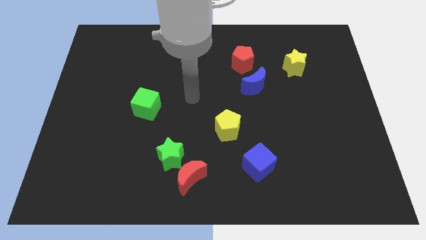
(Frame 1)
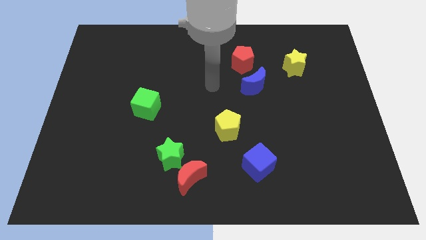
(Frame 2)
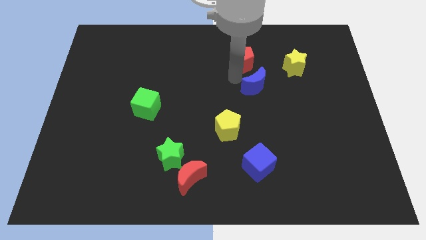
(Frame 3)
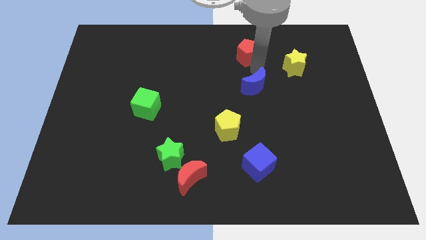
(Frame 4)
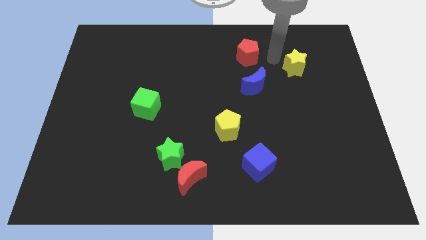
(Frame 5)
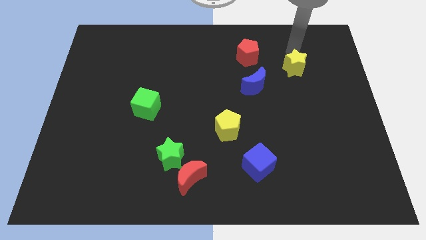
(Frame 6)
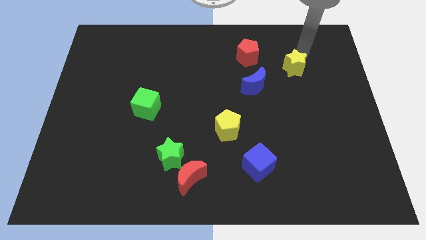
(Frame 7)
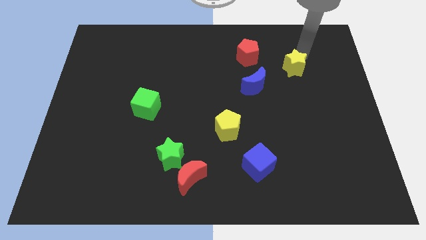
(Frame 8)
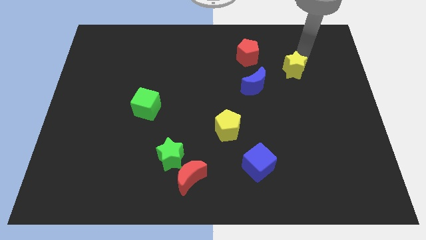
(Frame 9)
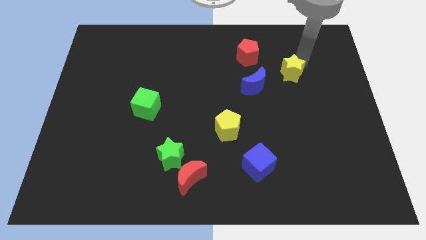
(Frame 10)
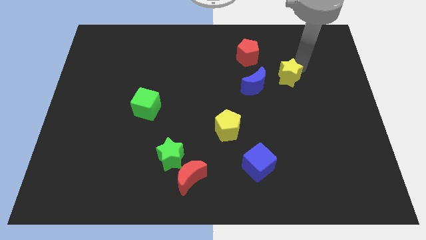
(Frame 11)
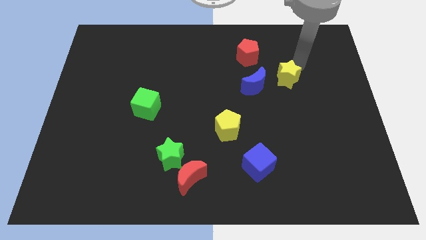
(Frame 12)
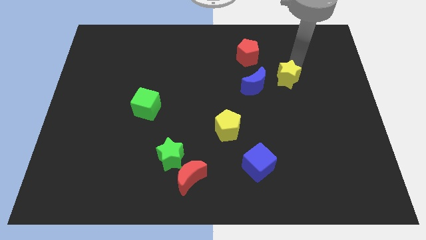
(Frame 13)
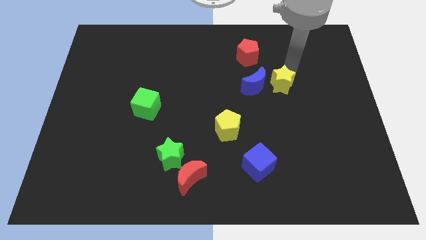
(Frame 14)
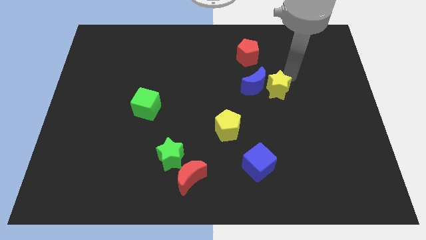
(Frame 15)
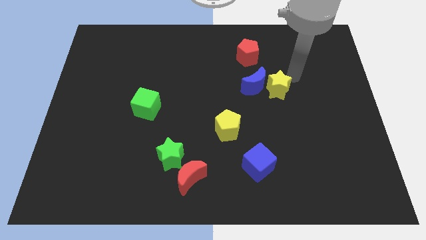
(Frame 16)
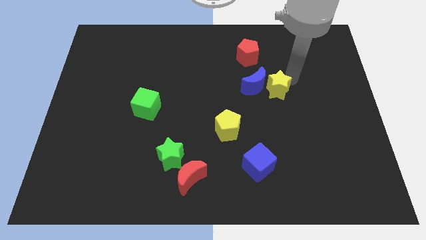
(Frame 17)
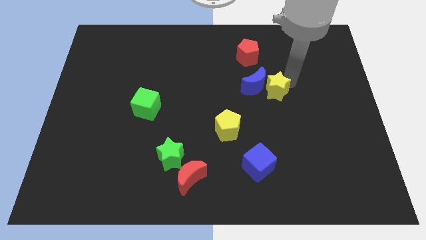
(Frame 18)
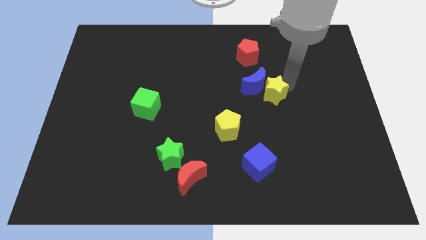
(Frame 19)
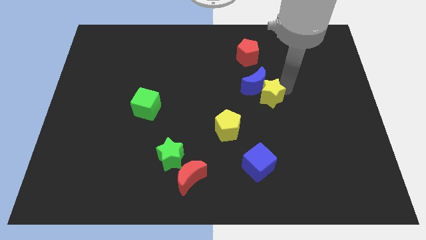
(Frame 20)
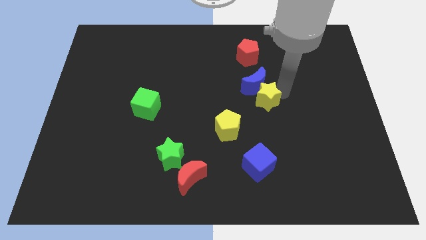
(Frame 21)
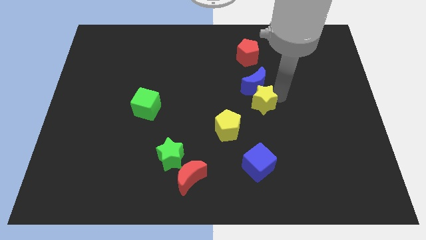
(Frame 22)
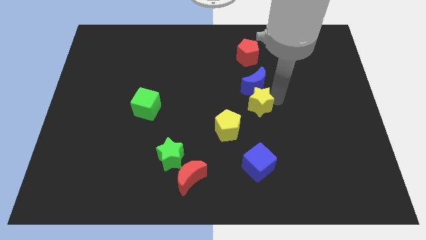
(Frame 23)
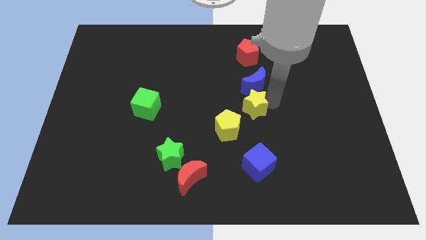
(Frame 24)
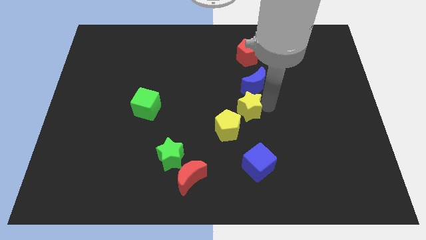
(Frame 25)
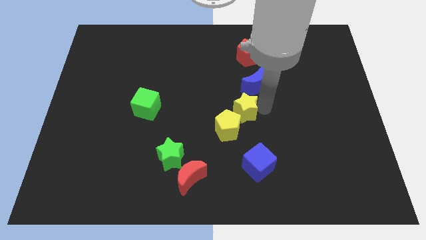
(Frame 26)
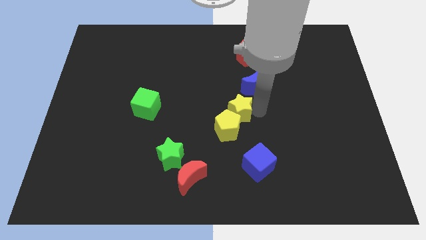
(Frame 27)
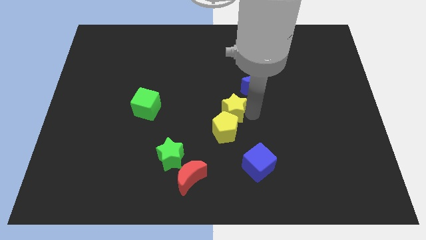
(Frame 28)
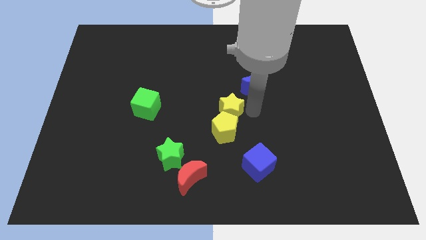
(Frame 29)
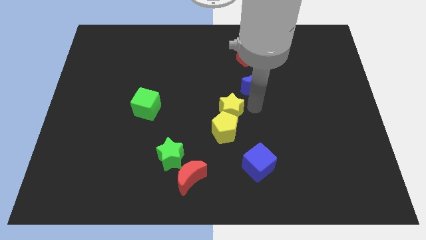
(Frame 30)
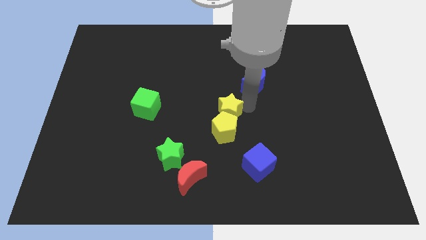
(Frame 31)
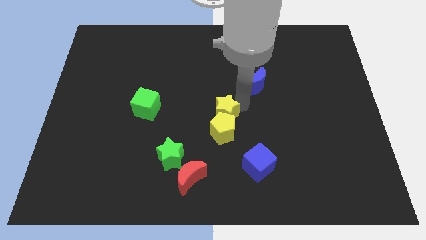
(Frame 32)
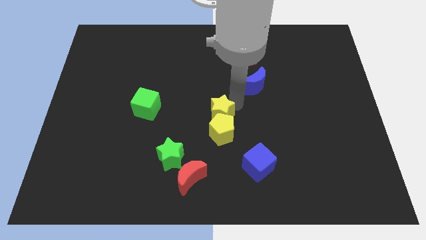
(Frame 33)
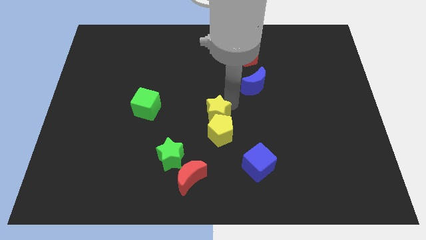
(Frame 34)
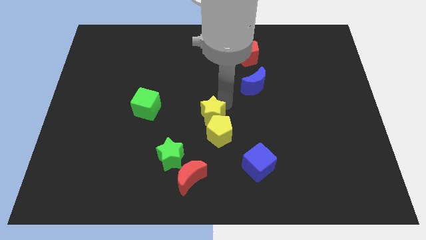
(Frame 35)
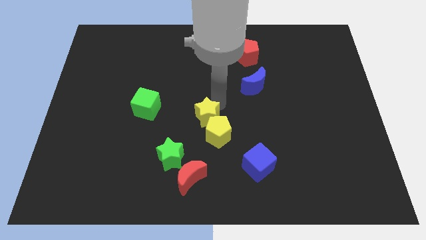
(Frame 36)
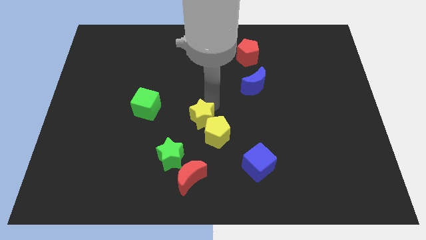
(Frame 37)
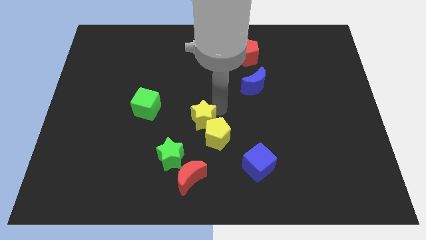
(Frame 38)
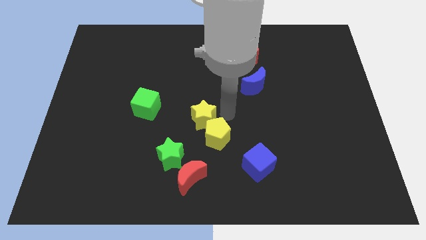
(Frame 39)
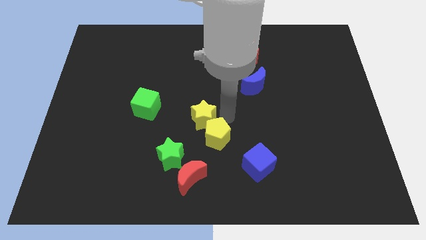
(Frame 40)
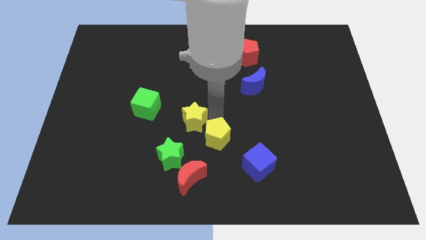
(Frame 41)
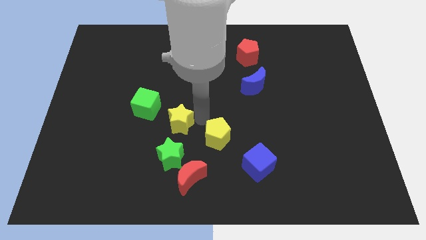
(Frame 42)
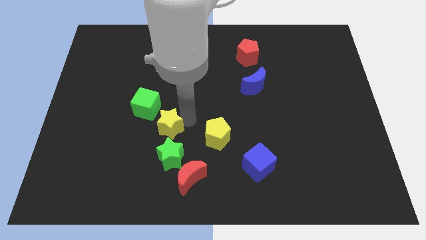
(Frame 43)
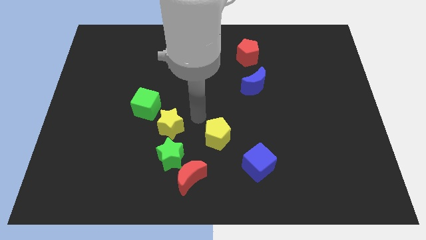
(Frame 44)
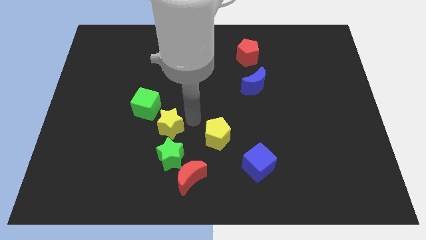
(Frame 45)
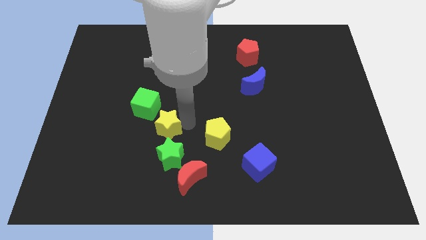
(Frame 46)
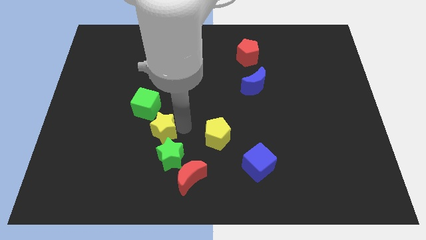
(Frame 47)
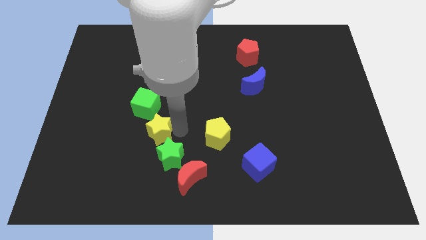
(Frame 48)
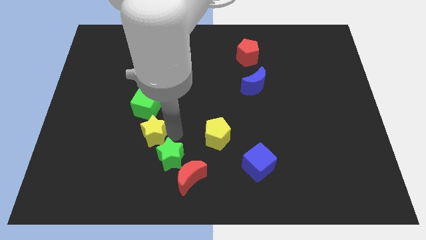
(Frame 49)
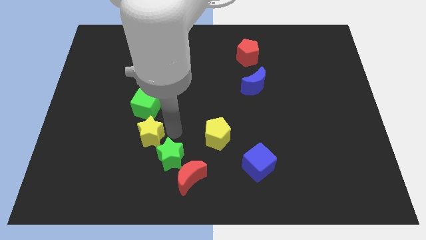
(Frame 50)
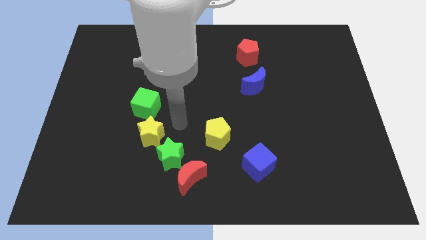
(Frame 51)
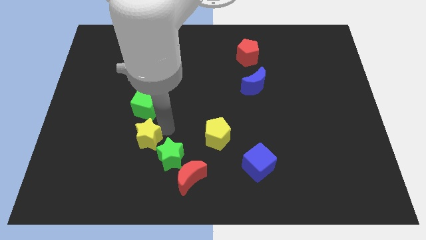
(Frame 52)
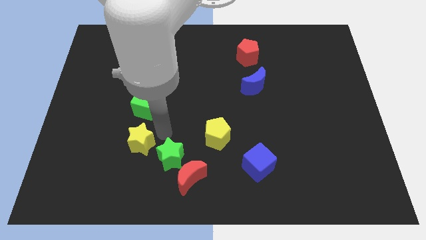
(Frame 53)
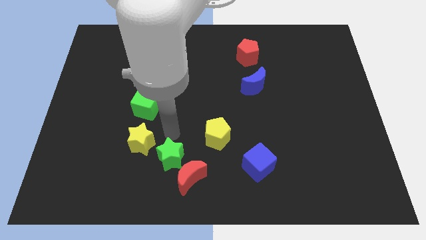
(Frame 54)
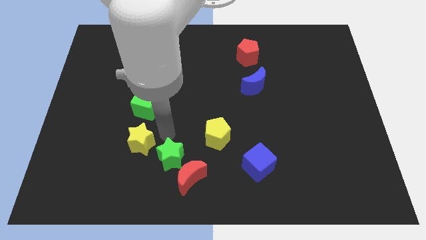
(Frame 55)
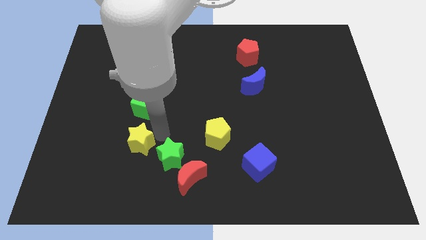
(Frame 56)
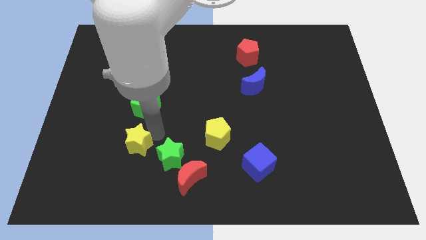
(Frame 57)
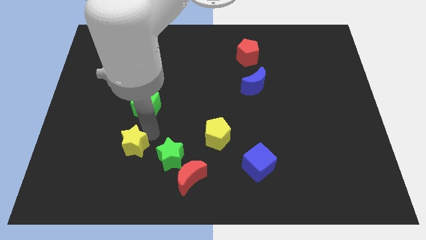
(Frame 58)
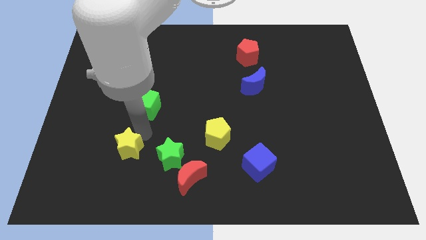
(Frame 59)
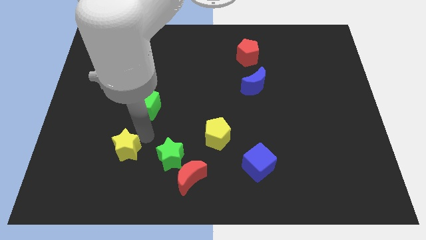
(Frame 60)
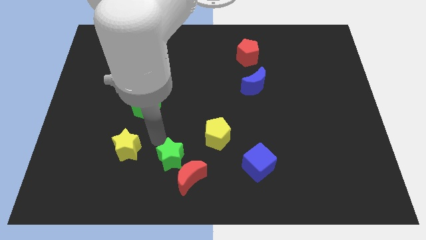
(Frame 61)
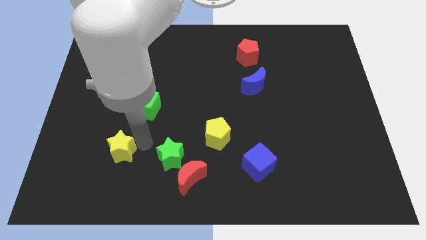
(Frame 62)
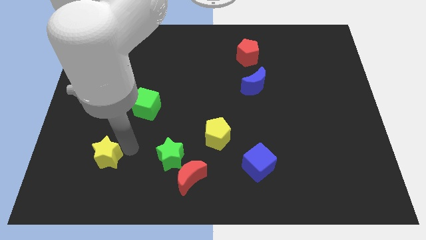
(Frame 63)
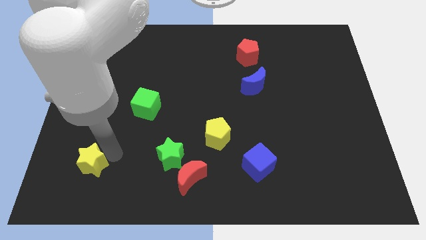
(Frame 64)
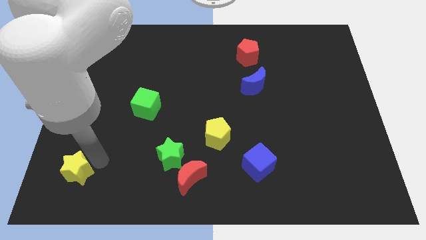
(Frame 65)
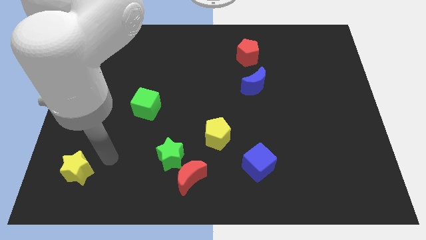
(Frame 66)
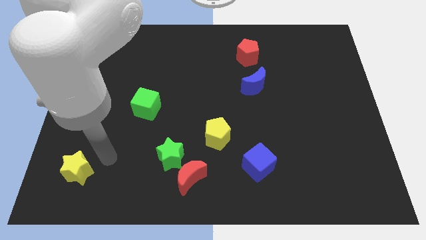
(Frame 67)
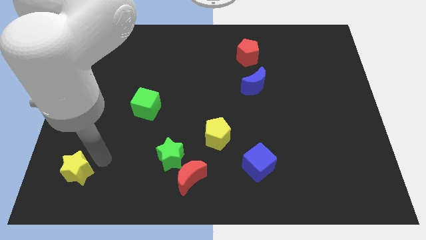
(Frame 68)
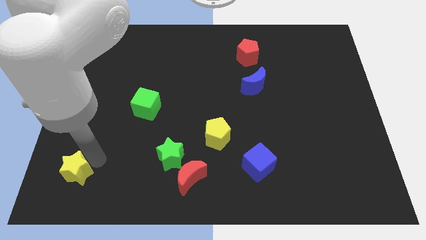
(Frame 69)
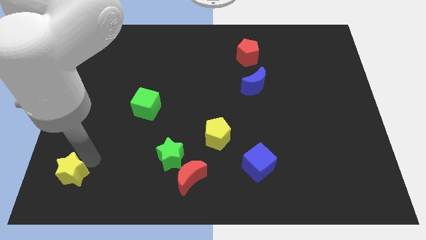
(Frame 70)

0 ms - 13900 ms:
push the yellow star to the bottom left

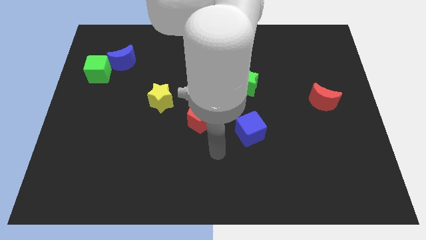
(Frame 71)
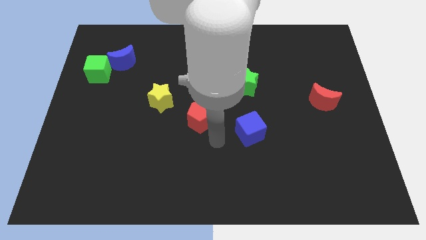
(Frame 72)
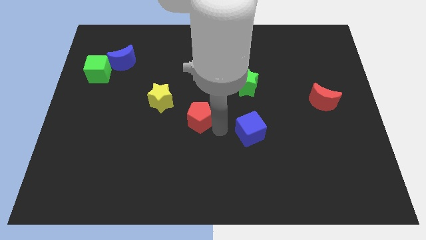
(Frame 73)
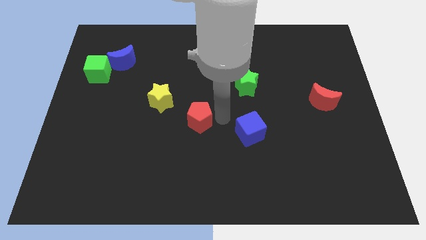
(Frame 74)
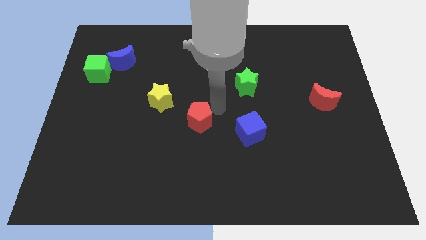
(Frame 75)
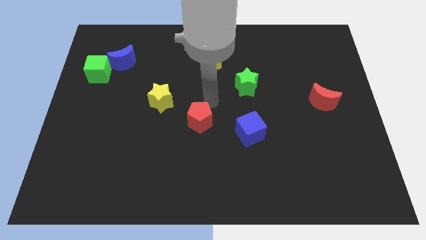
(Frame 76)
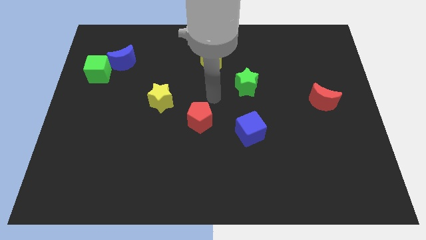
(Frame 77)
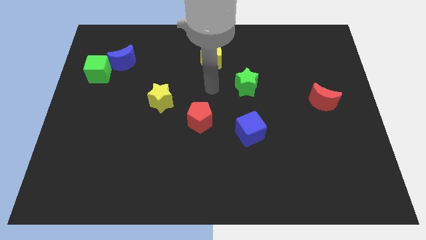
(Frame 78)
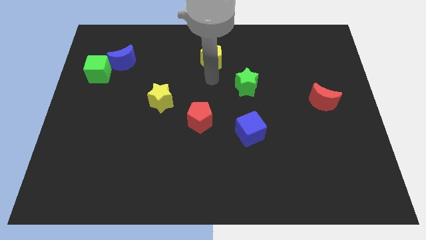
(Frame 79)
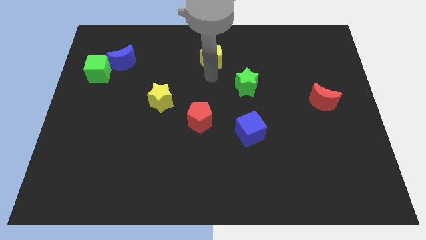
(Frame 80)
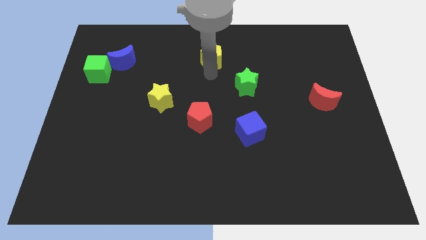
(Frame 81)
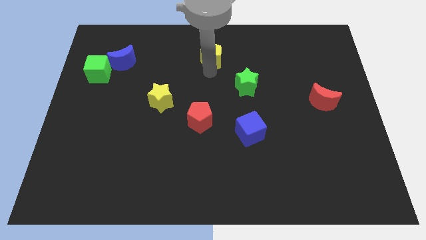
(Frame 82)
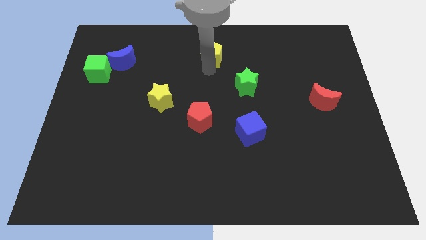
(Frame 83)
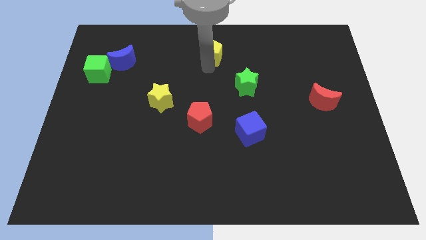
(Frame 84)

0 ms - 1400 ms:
push the yellow pentagon to the towards your base
